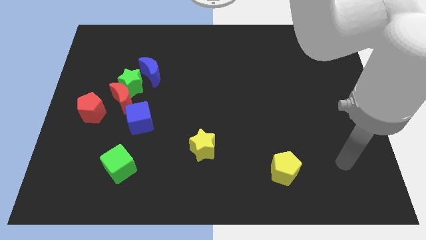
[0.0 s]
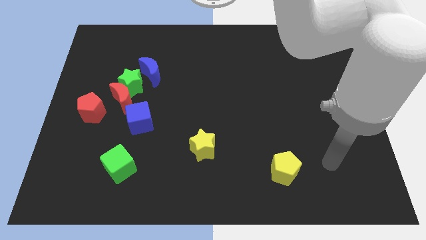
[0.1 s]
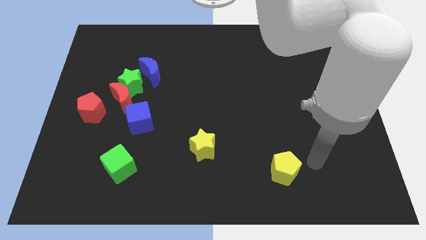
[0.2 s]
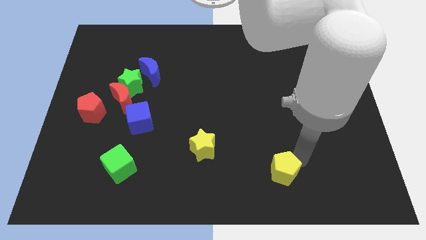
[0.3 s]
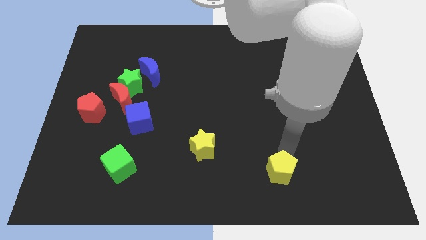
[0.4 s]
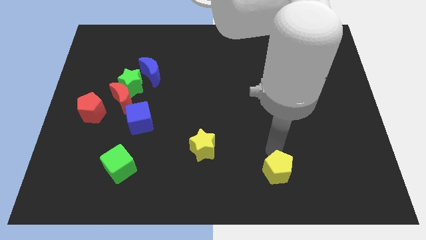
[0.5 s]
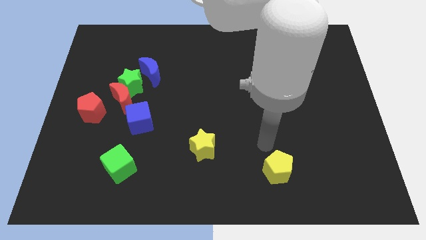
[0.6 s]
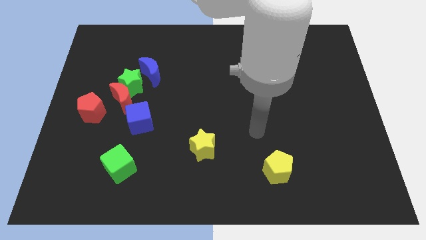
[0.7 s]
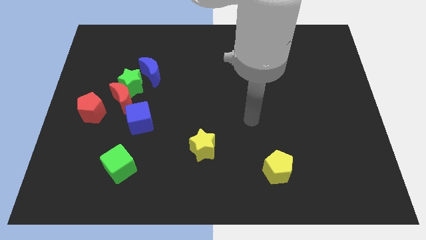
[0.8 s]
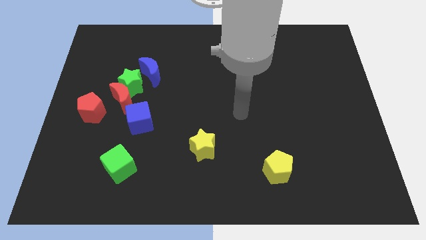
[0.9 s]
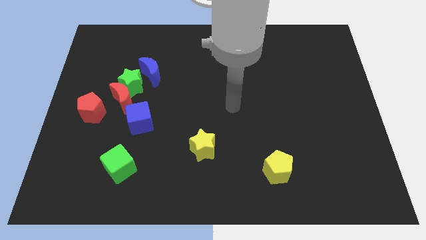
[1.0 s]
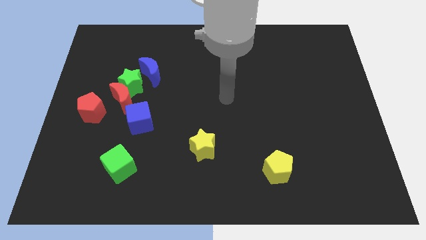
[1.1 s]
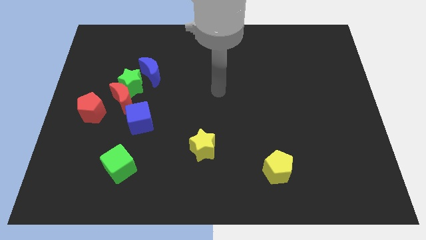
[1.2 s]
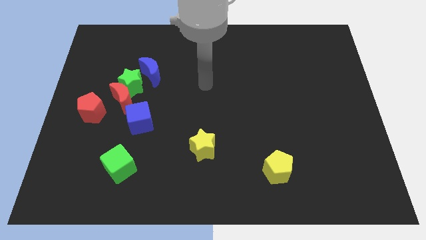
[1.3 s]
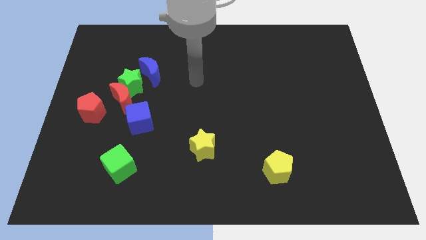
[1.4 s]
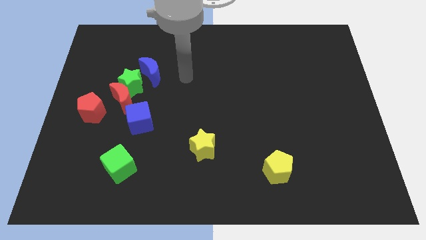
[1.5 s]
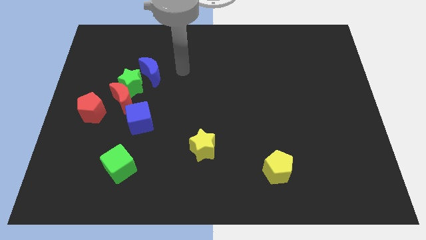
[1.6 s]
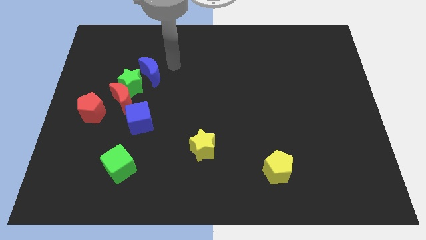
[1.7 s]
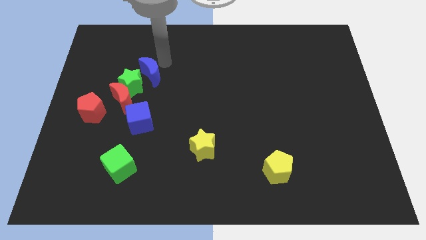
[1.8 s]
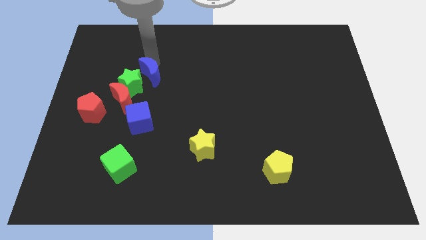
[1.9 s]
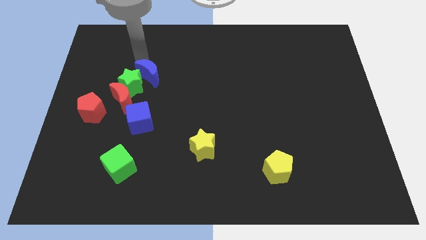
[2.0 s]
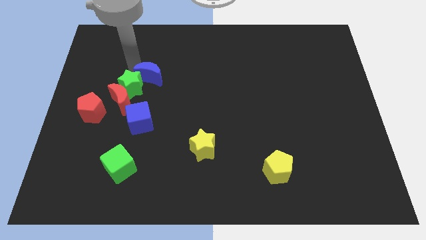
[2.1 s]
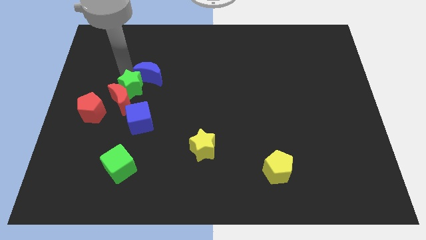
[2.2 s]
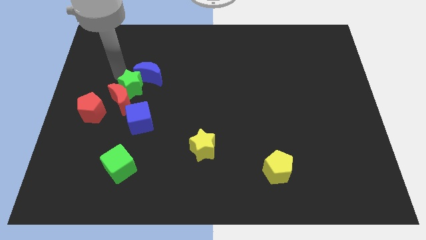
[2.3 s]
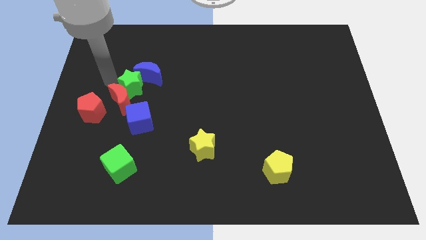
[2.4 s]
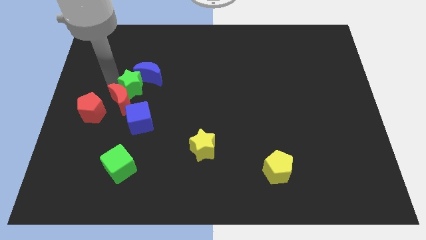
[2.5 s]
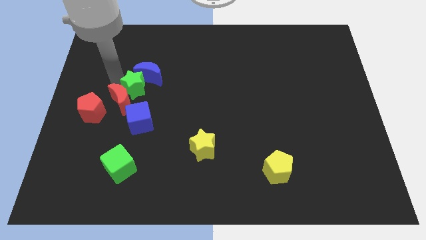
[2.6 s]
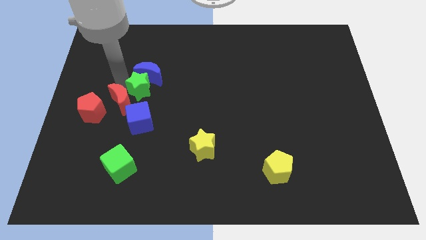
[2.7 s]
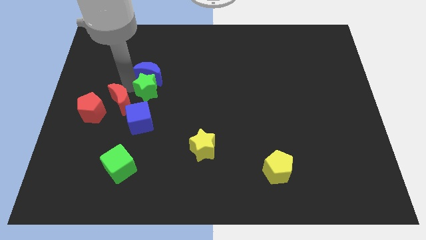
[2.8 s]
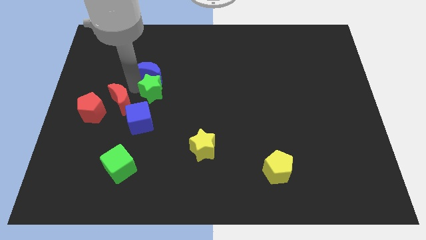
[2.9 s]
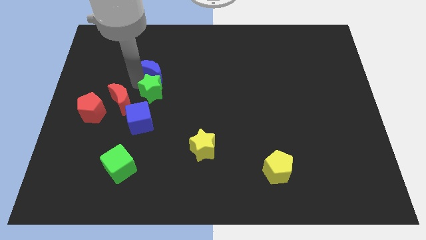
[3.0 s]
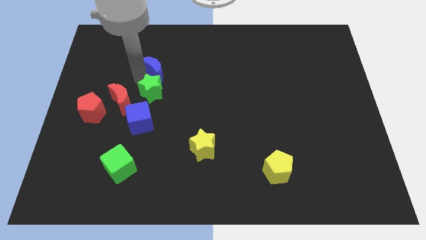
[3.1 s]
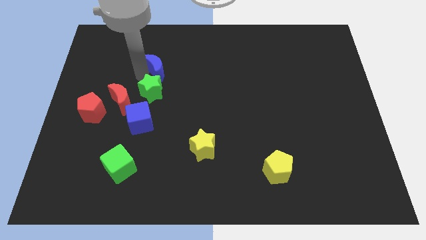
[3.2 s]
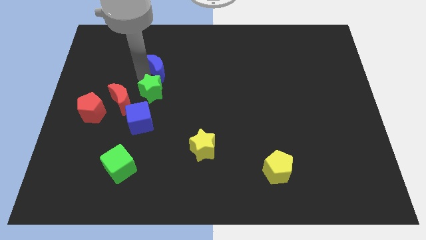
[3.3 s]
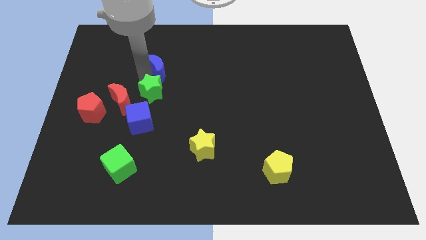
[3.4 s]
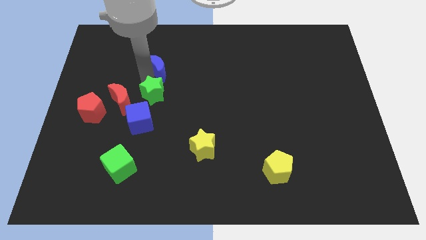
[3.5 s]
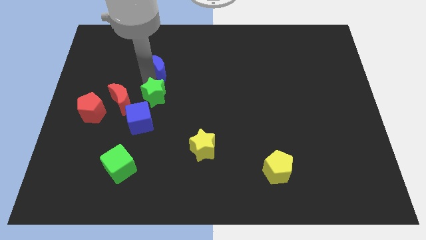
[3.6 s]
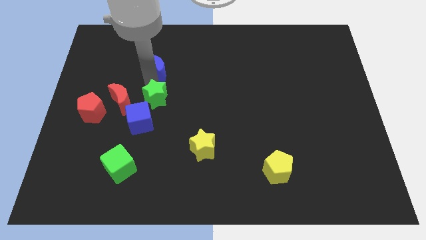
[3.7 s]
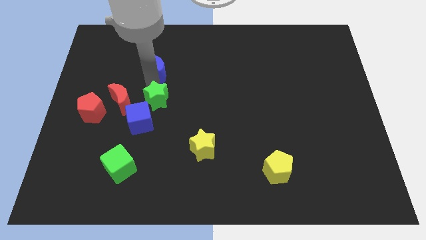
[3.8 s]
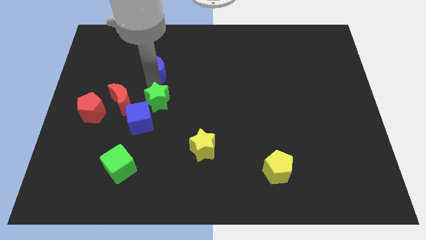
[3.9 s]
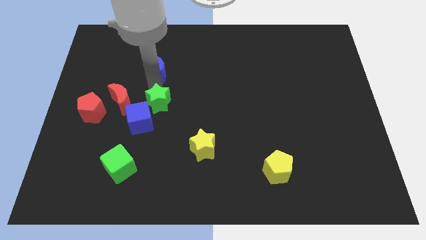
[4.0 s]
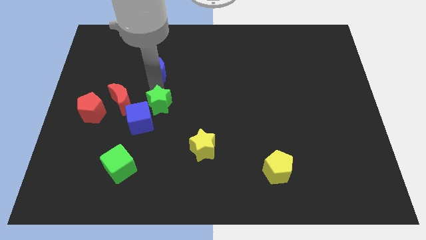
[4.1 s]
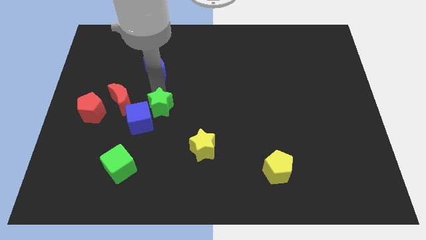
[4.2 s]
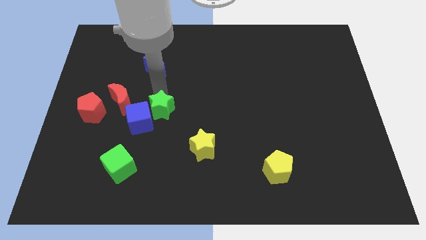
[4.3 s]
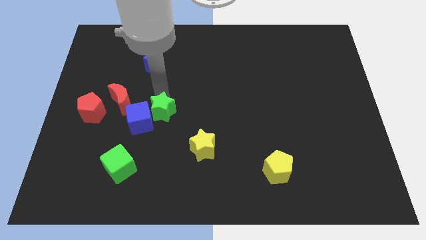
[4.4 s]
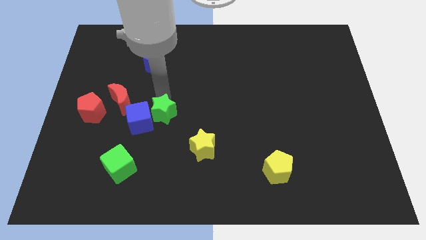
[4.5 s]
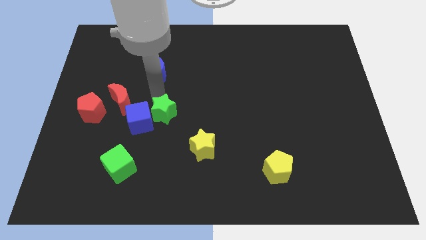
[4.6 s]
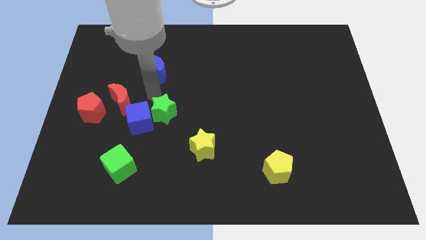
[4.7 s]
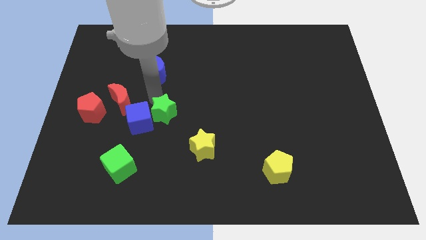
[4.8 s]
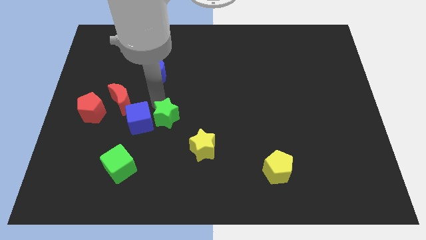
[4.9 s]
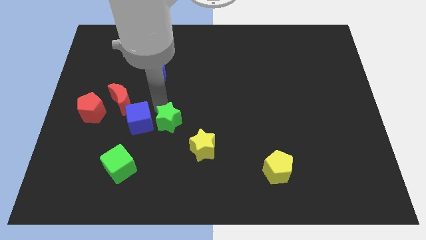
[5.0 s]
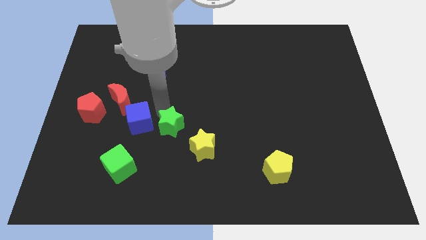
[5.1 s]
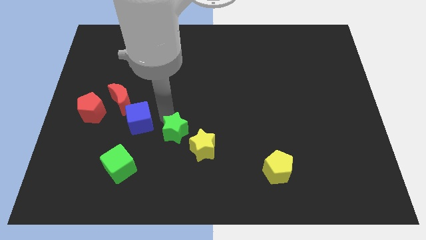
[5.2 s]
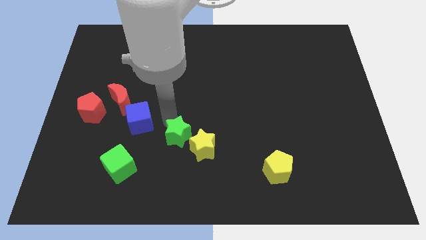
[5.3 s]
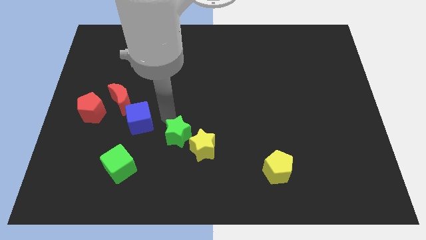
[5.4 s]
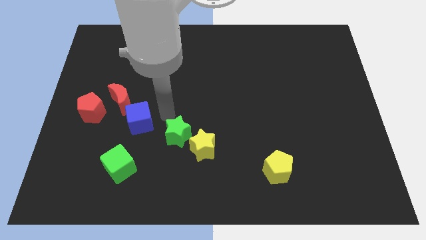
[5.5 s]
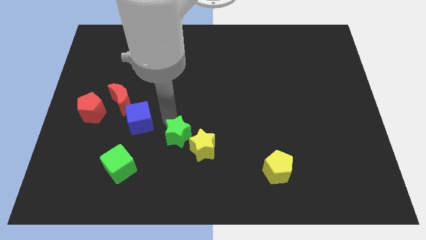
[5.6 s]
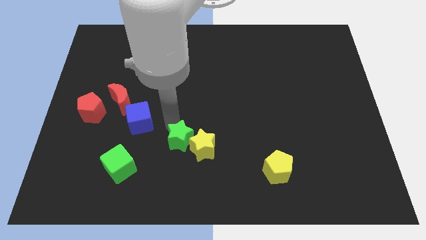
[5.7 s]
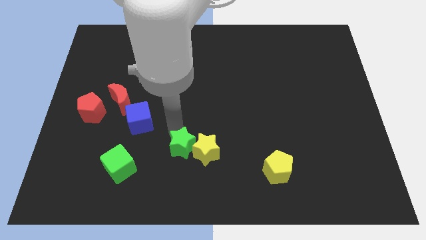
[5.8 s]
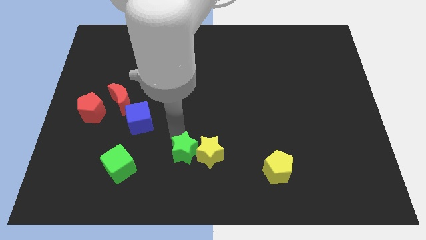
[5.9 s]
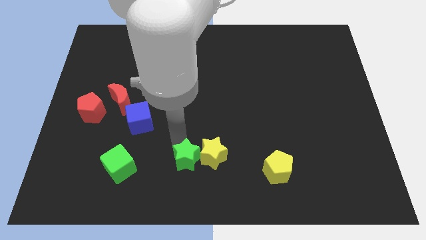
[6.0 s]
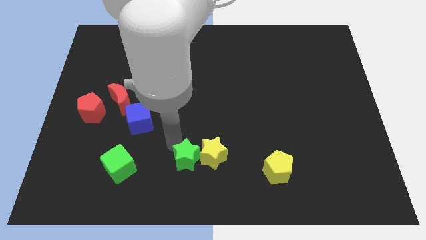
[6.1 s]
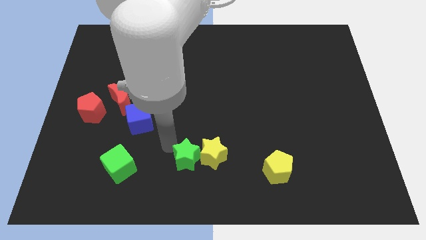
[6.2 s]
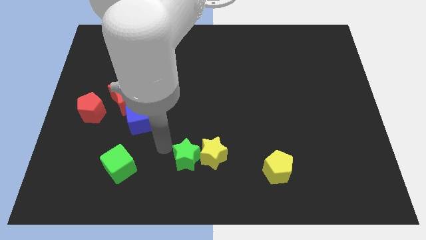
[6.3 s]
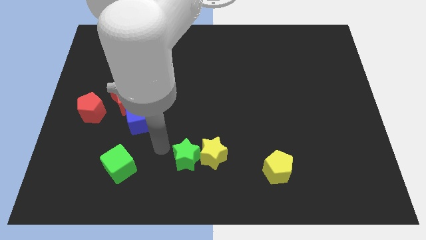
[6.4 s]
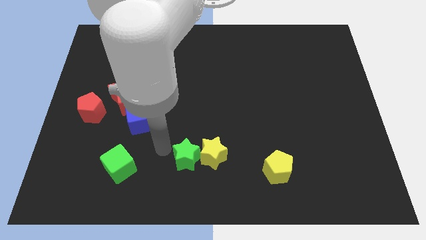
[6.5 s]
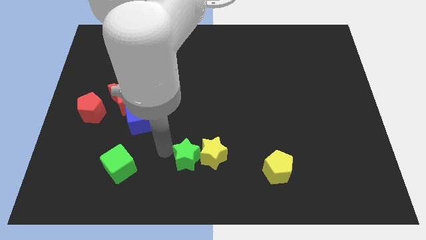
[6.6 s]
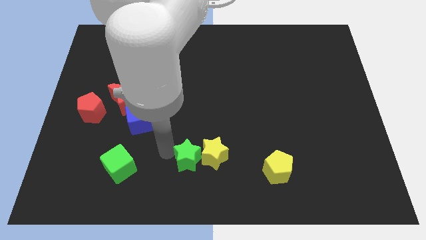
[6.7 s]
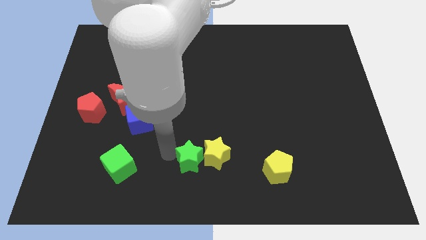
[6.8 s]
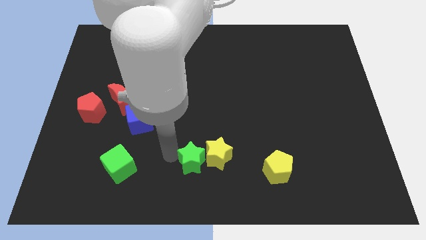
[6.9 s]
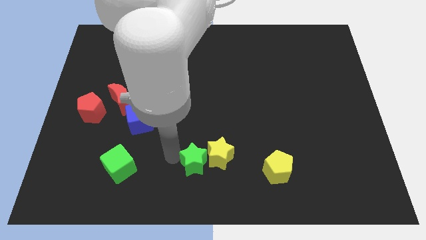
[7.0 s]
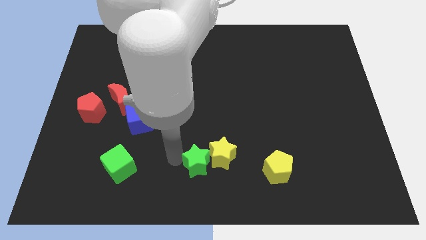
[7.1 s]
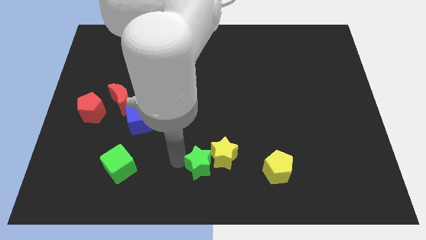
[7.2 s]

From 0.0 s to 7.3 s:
move the green star just left of the yellow pentagon

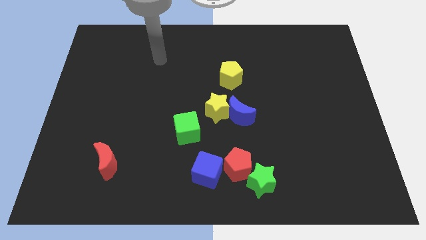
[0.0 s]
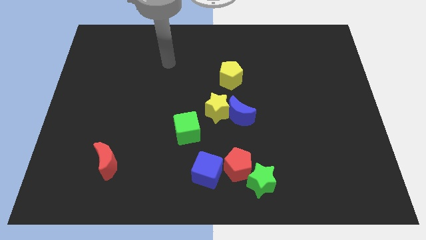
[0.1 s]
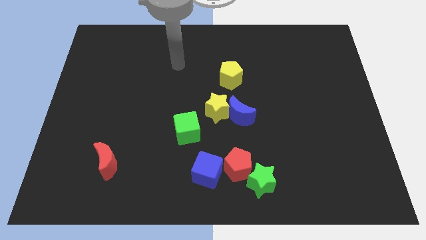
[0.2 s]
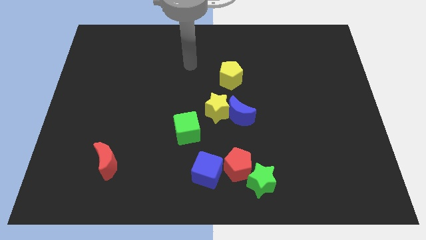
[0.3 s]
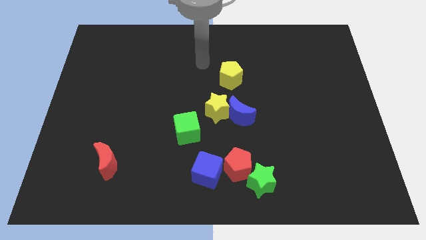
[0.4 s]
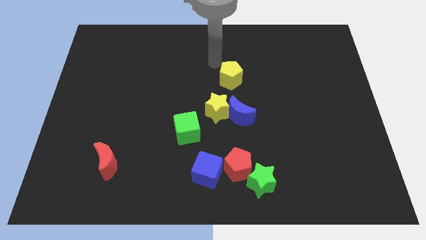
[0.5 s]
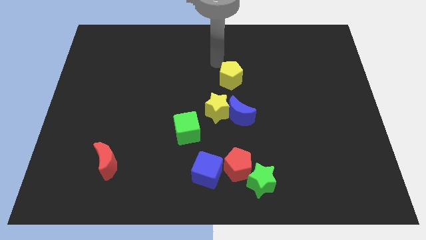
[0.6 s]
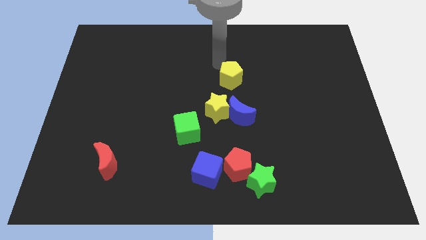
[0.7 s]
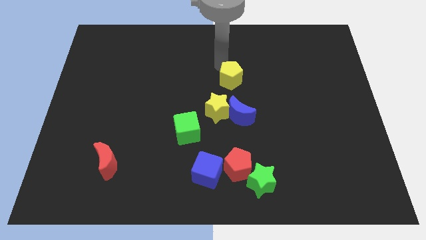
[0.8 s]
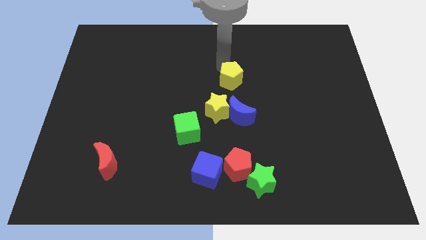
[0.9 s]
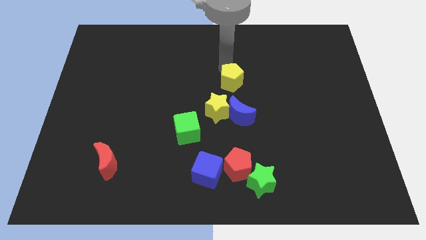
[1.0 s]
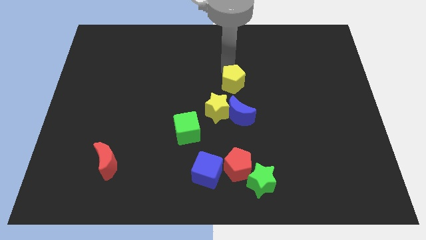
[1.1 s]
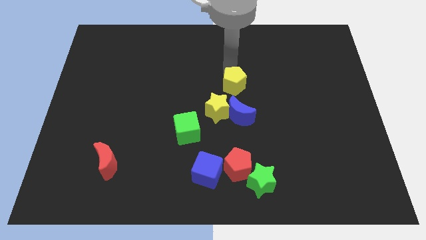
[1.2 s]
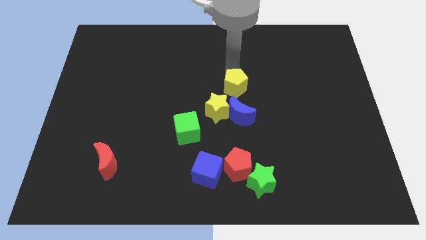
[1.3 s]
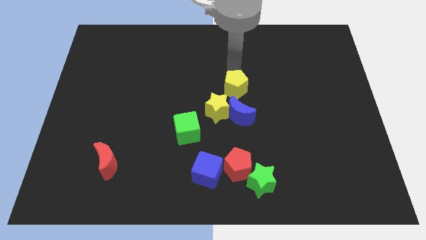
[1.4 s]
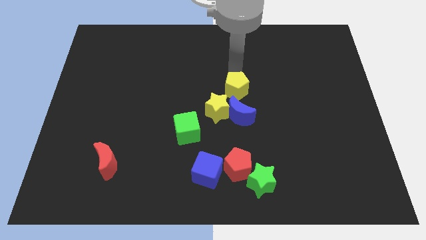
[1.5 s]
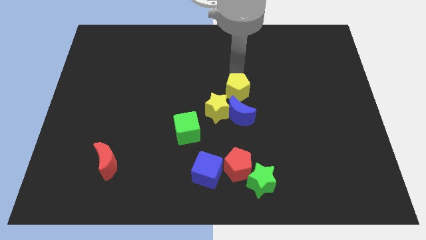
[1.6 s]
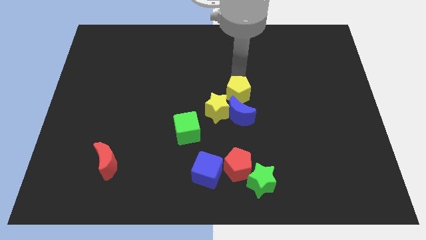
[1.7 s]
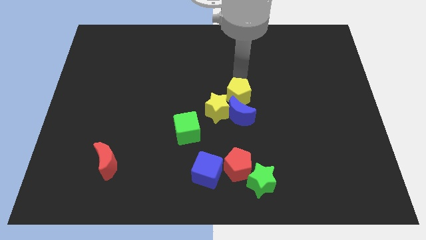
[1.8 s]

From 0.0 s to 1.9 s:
push the yellow pentagon to the right of the yellow star
